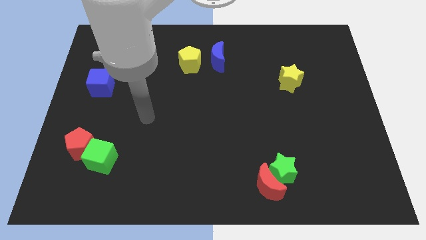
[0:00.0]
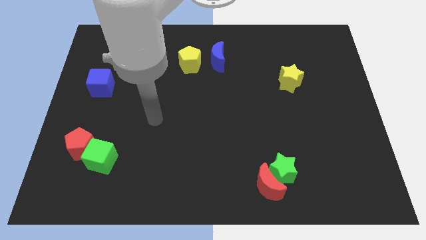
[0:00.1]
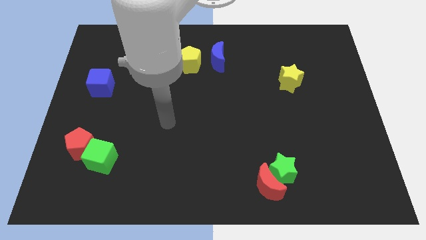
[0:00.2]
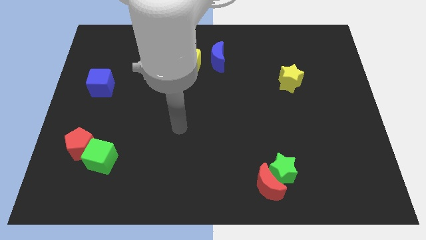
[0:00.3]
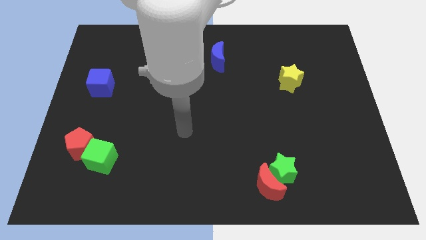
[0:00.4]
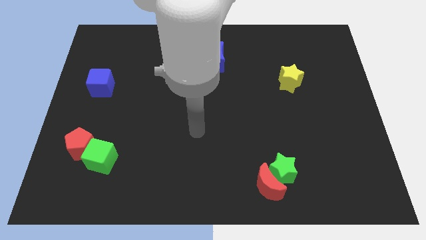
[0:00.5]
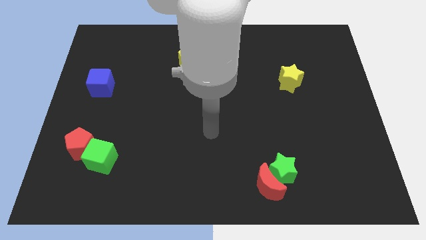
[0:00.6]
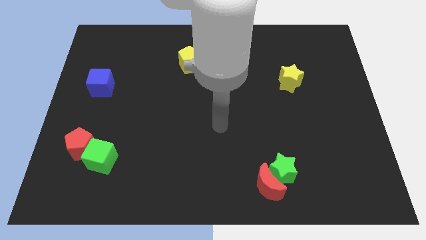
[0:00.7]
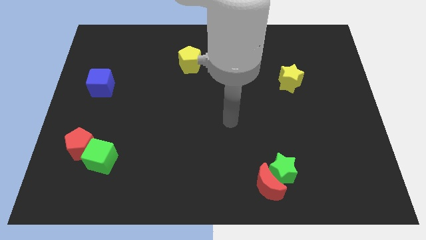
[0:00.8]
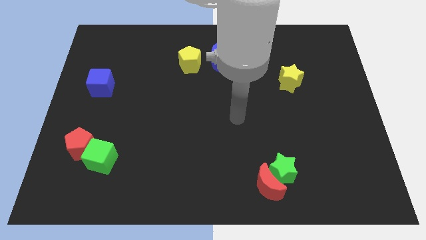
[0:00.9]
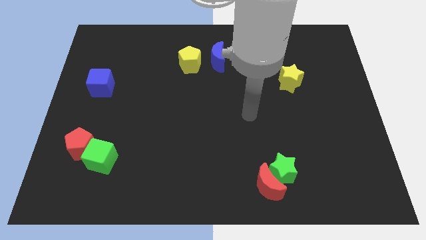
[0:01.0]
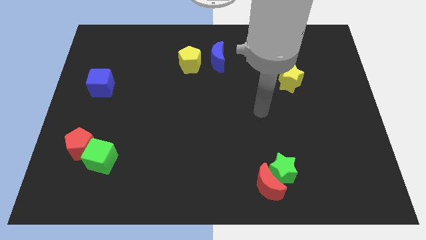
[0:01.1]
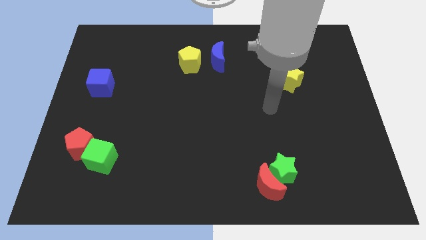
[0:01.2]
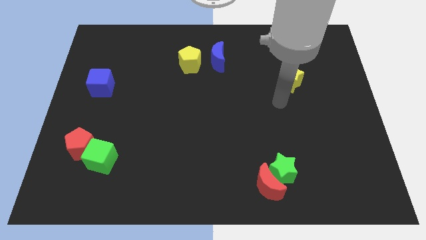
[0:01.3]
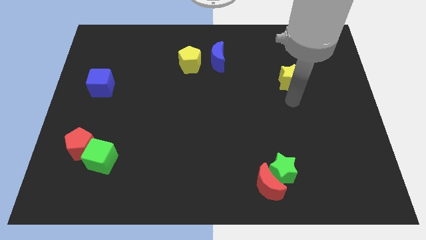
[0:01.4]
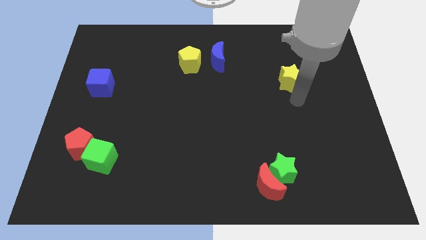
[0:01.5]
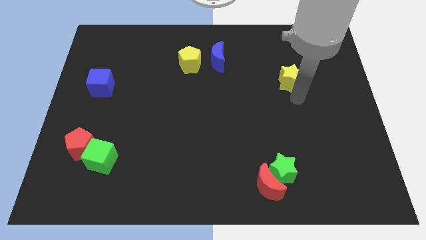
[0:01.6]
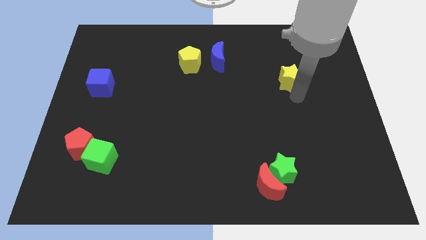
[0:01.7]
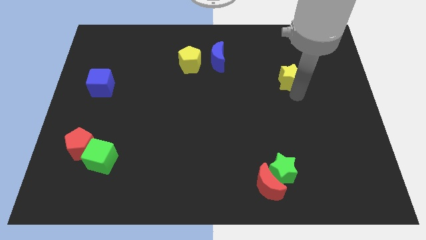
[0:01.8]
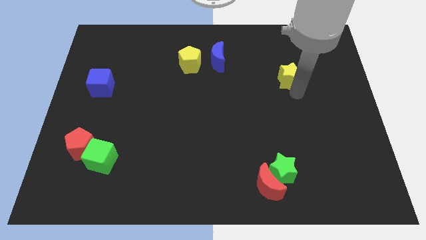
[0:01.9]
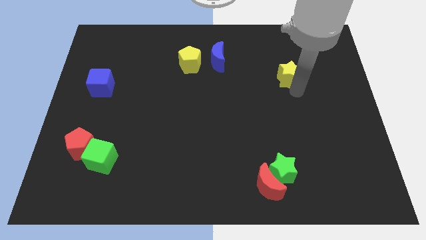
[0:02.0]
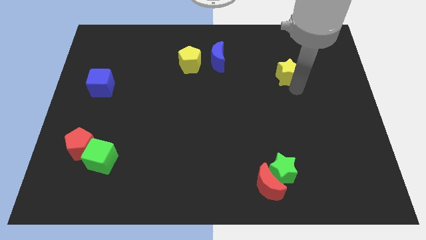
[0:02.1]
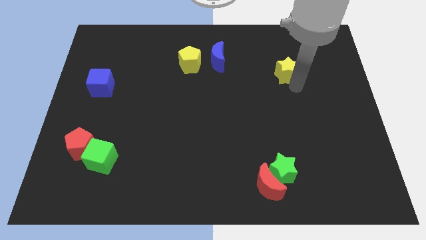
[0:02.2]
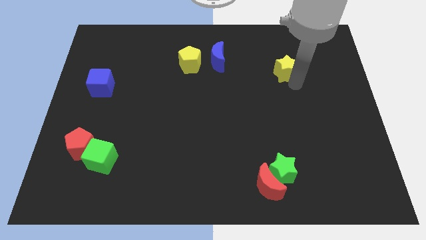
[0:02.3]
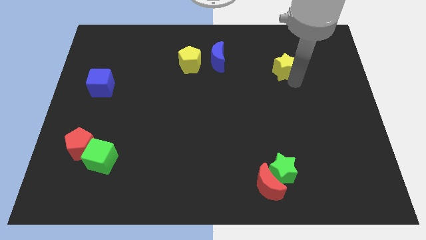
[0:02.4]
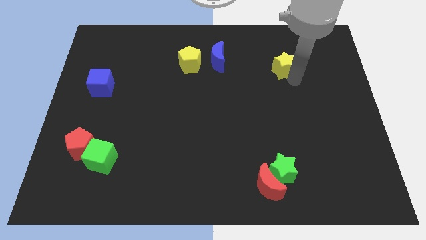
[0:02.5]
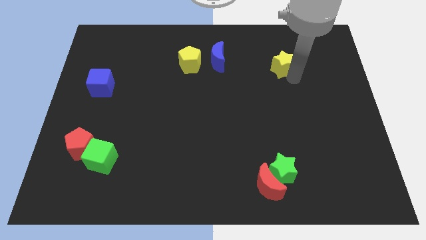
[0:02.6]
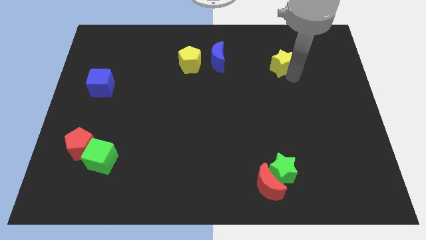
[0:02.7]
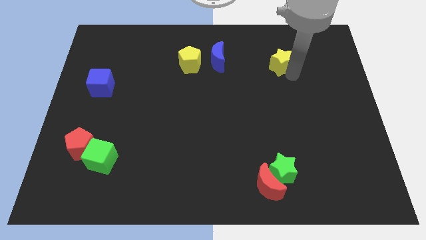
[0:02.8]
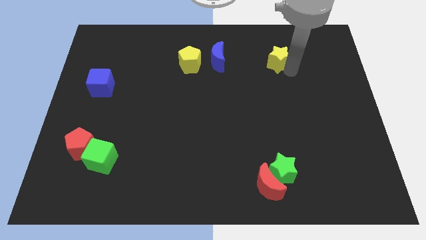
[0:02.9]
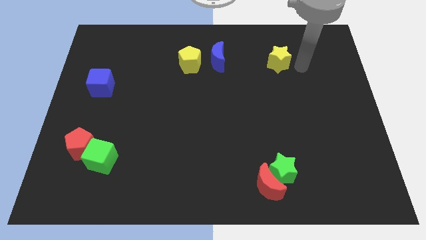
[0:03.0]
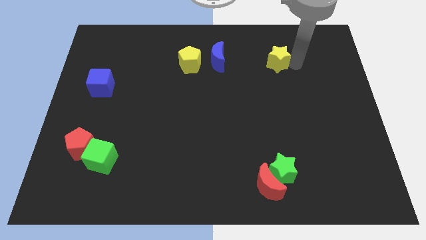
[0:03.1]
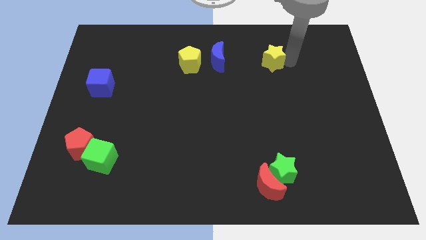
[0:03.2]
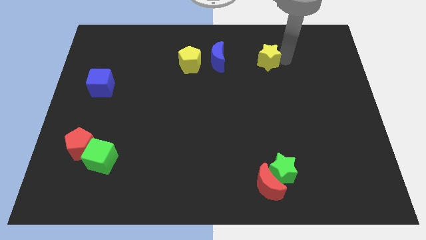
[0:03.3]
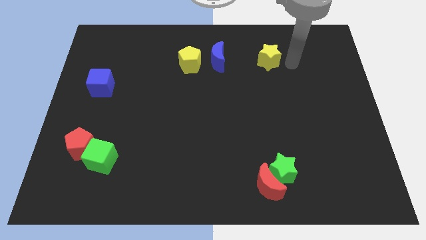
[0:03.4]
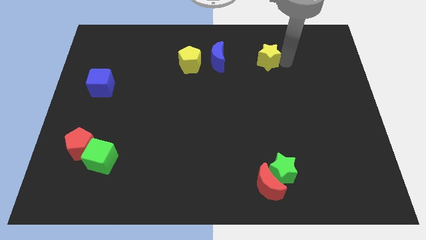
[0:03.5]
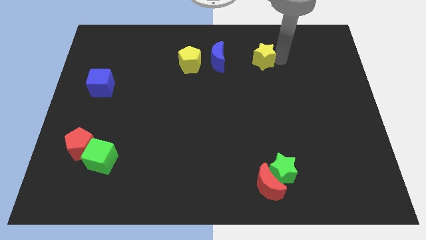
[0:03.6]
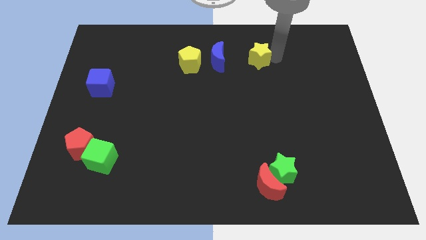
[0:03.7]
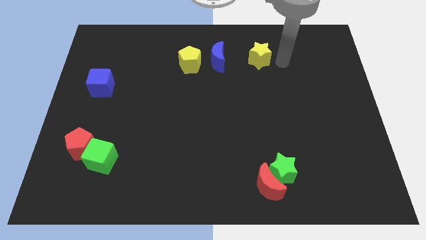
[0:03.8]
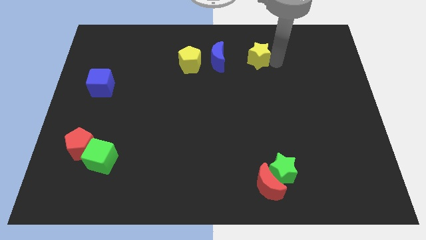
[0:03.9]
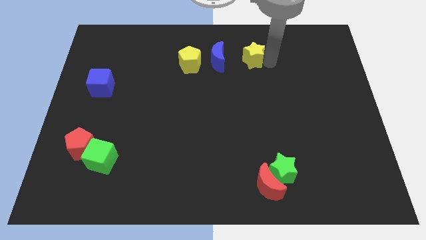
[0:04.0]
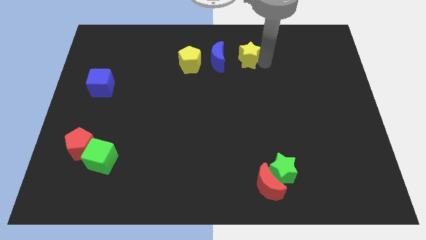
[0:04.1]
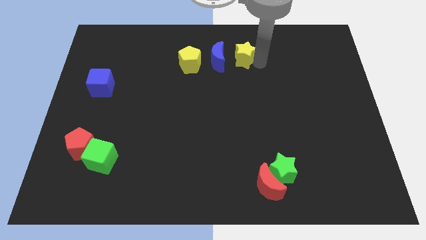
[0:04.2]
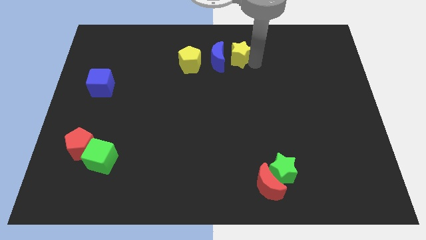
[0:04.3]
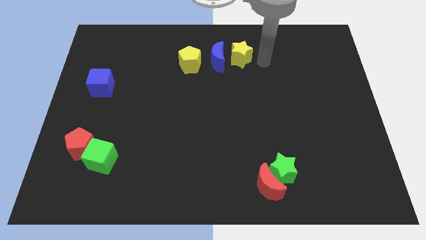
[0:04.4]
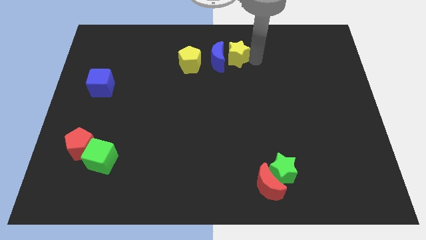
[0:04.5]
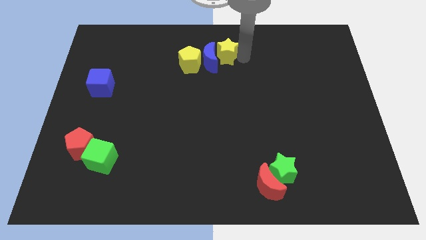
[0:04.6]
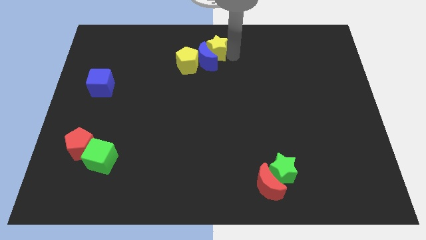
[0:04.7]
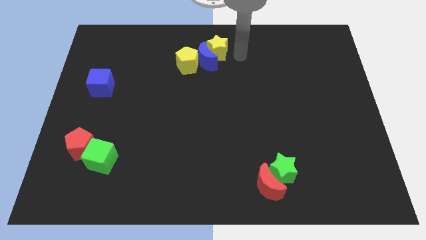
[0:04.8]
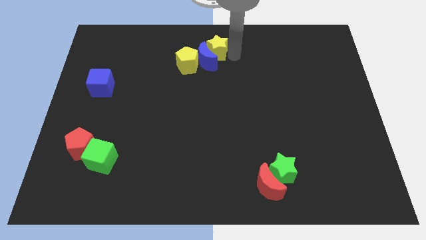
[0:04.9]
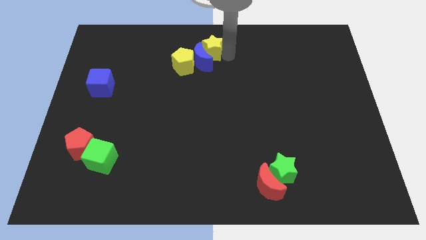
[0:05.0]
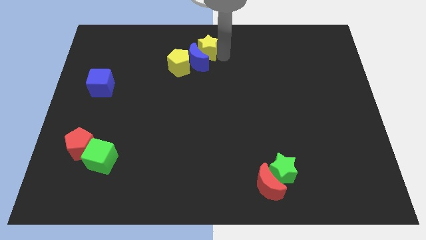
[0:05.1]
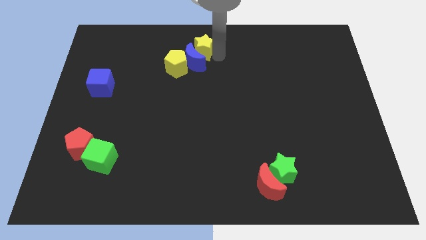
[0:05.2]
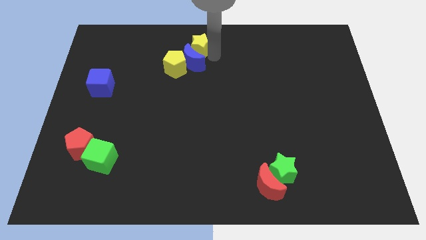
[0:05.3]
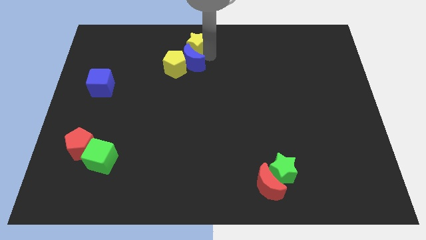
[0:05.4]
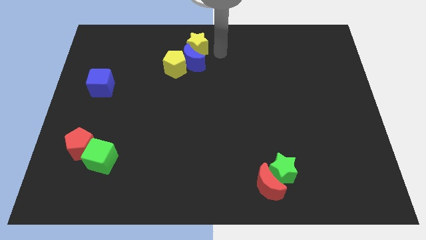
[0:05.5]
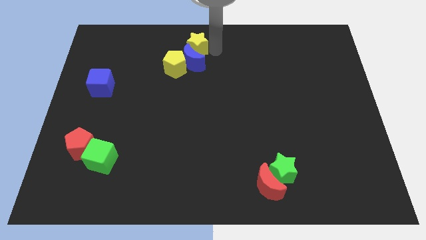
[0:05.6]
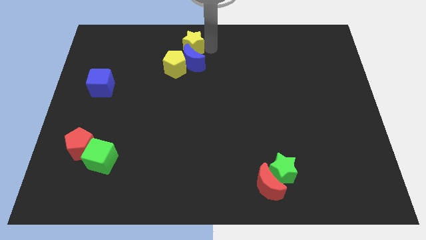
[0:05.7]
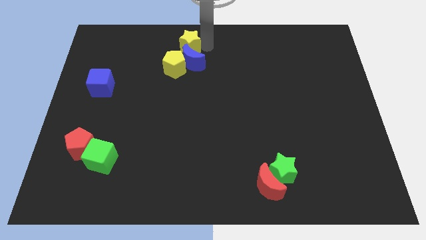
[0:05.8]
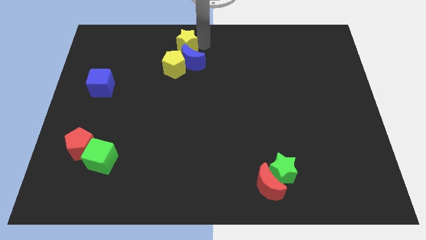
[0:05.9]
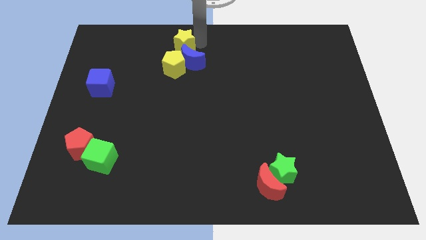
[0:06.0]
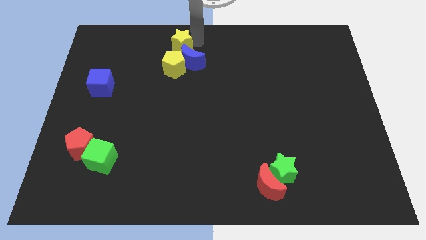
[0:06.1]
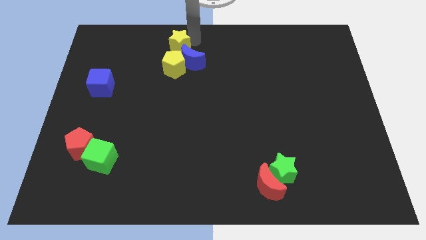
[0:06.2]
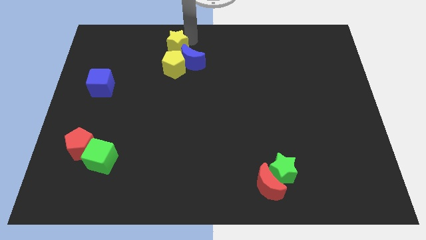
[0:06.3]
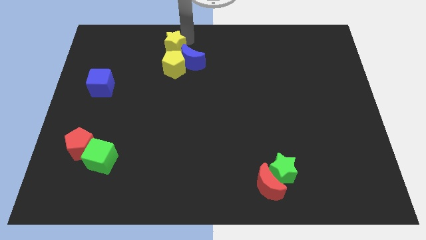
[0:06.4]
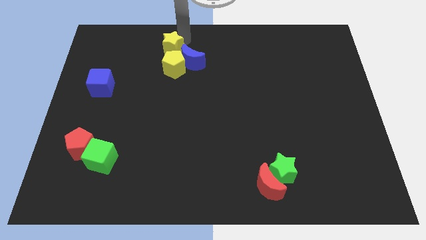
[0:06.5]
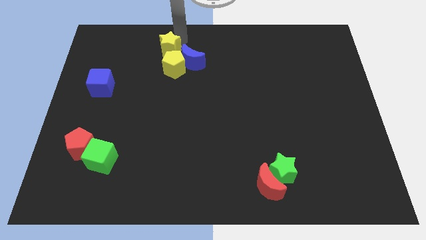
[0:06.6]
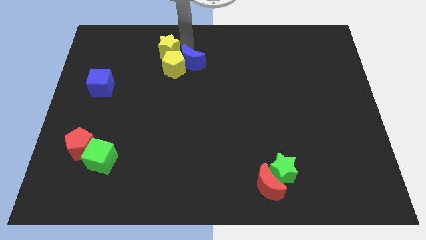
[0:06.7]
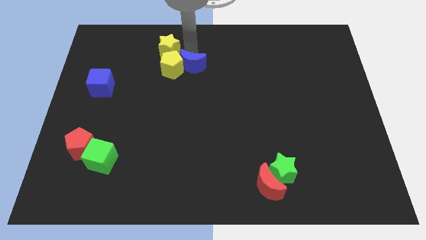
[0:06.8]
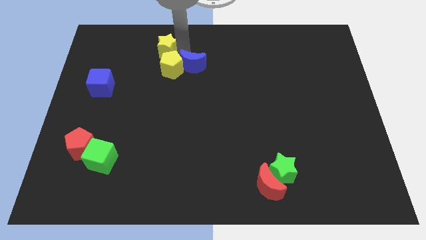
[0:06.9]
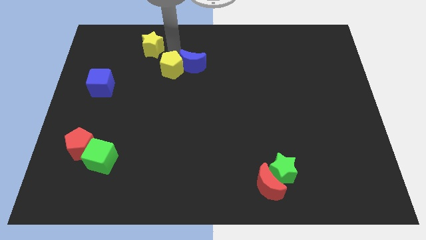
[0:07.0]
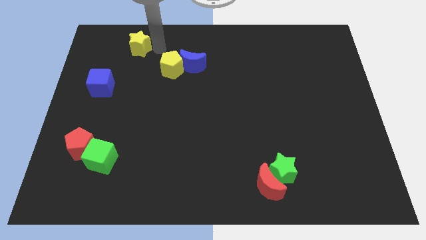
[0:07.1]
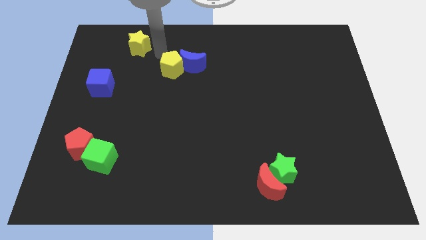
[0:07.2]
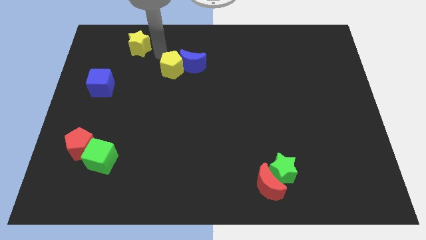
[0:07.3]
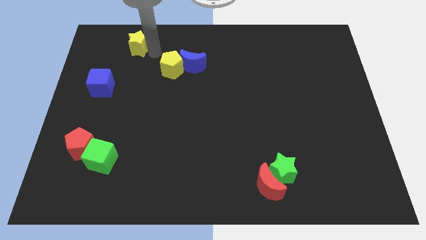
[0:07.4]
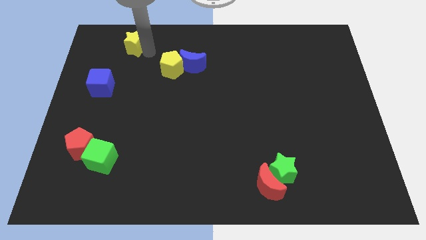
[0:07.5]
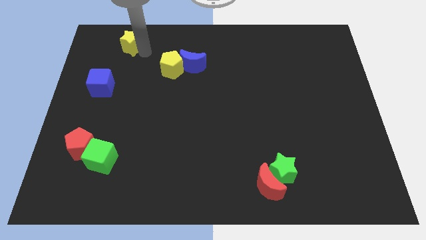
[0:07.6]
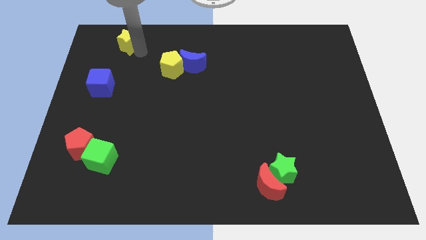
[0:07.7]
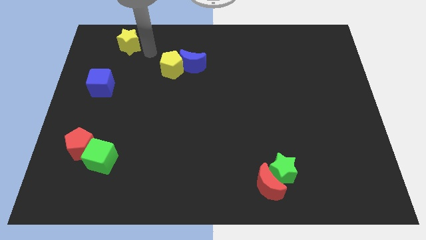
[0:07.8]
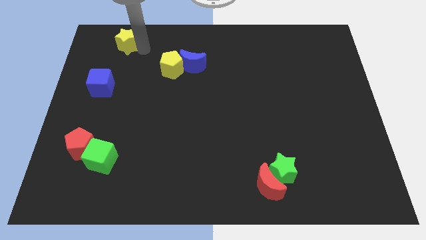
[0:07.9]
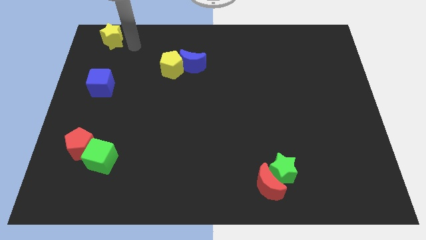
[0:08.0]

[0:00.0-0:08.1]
move the yellow star to the upper left corner
